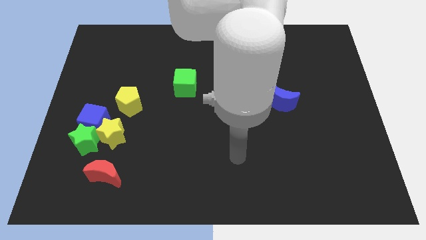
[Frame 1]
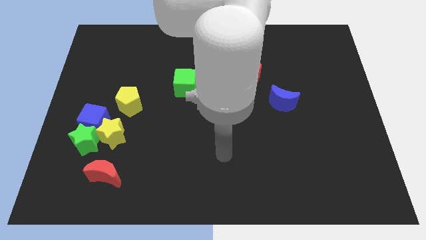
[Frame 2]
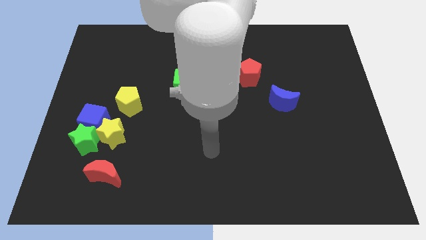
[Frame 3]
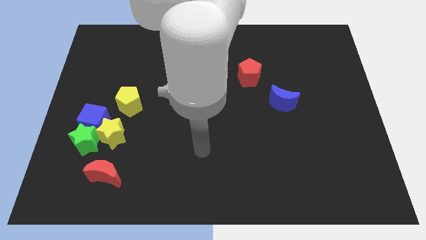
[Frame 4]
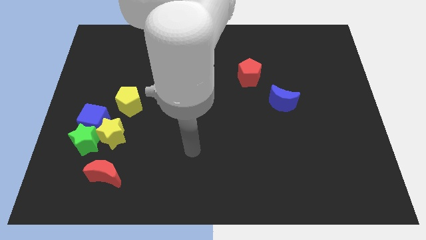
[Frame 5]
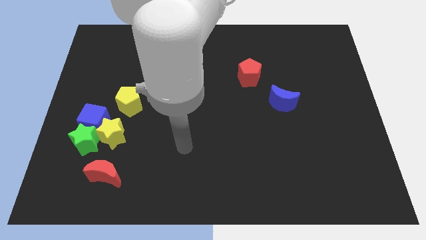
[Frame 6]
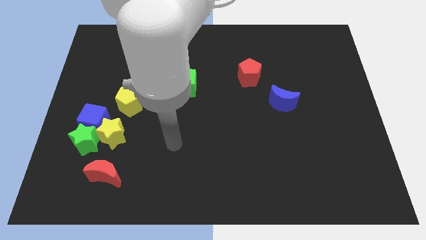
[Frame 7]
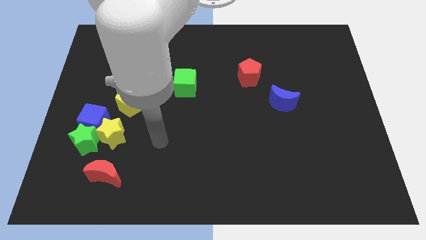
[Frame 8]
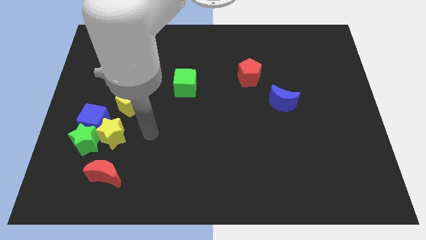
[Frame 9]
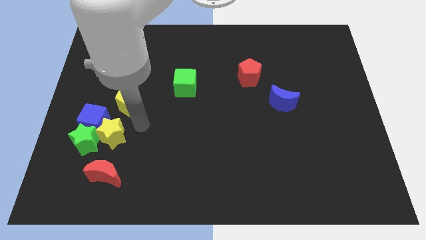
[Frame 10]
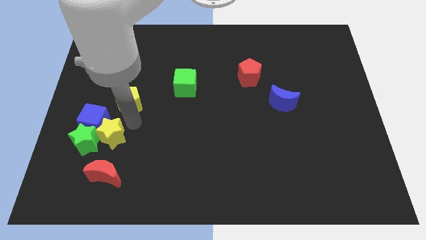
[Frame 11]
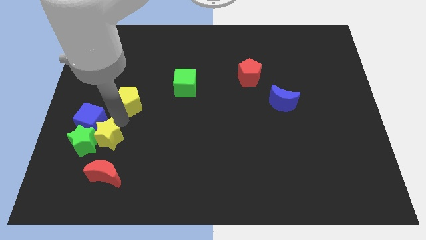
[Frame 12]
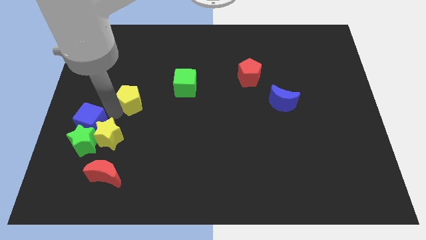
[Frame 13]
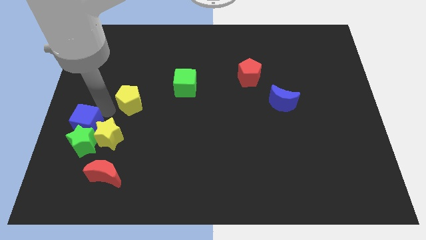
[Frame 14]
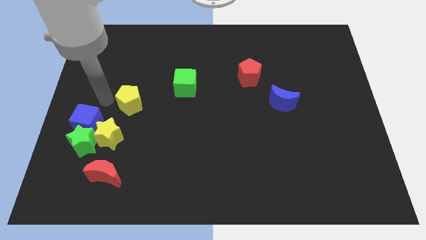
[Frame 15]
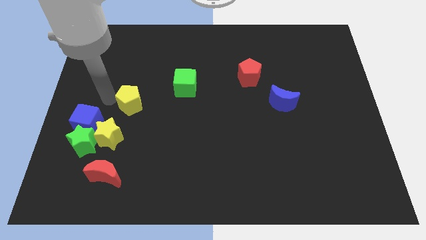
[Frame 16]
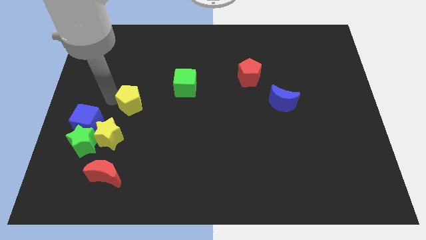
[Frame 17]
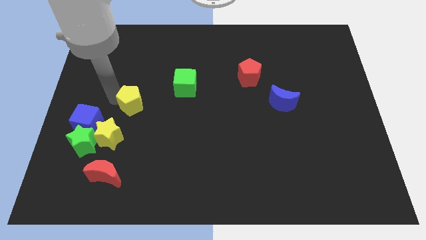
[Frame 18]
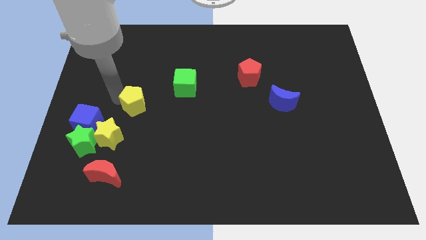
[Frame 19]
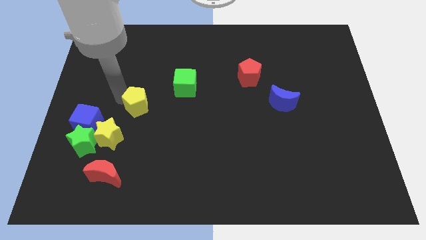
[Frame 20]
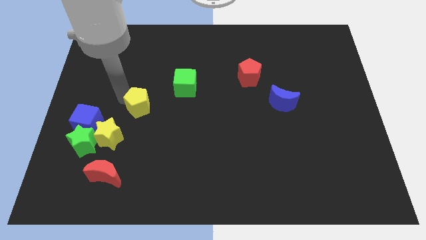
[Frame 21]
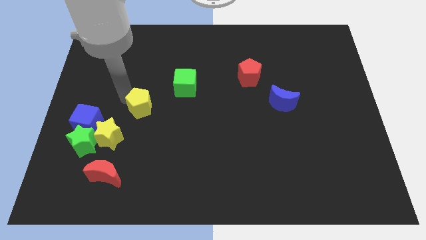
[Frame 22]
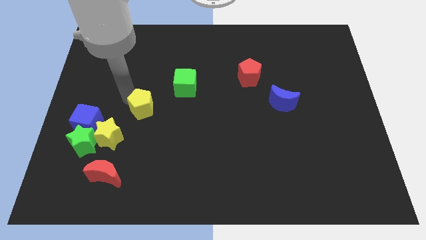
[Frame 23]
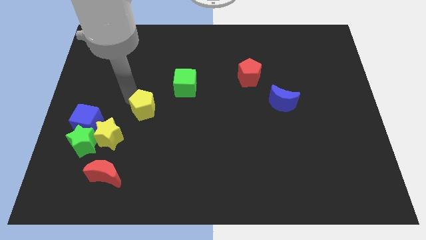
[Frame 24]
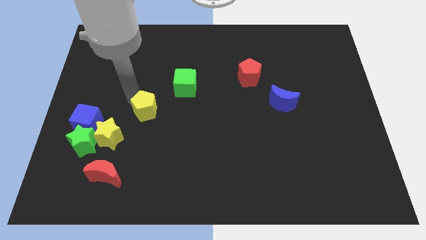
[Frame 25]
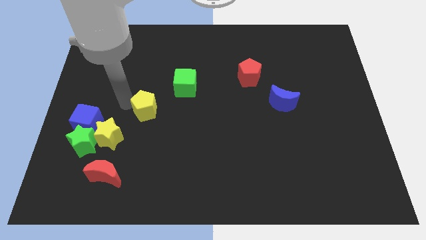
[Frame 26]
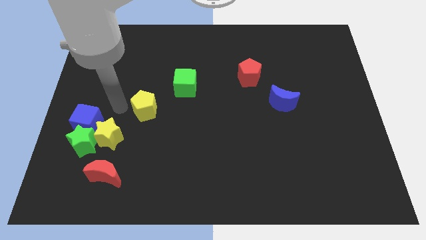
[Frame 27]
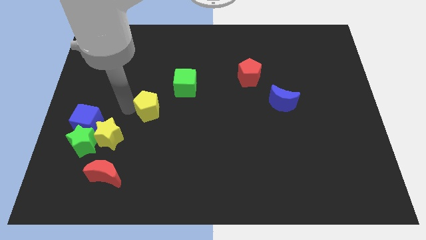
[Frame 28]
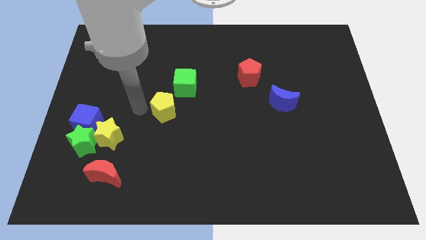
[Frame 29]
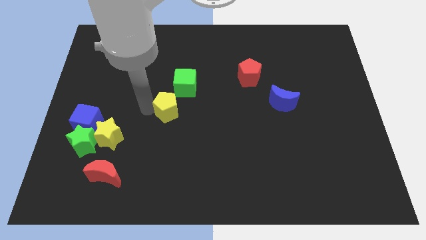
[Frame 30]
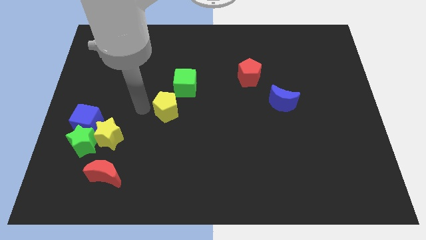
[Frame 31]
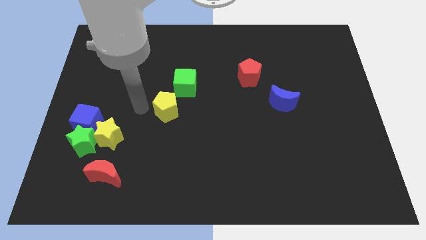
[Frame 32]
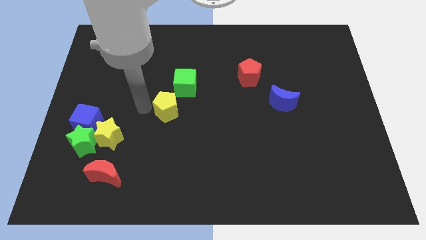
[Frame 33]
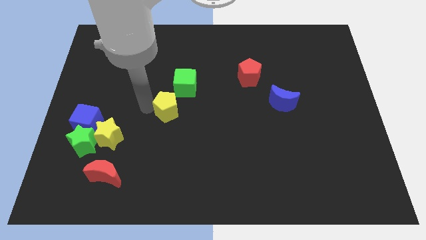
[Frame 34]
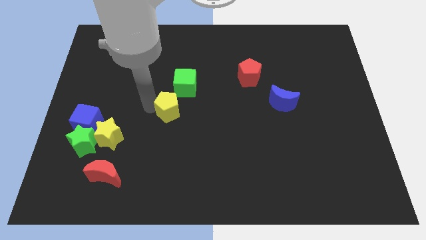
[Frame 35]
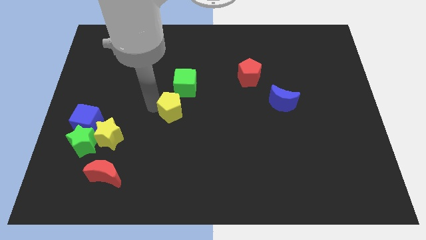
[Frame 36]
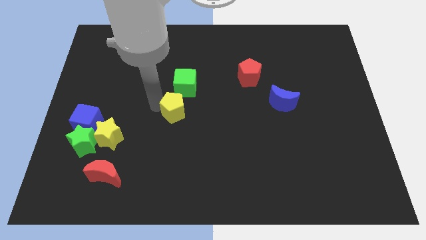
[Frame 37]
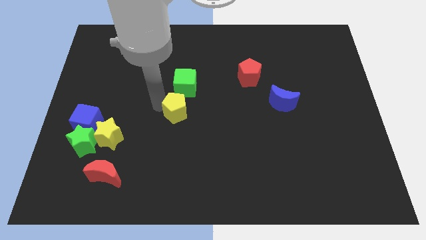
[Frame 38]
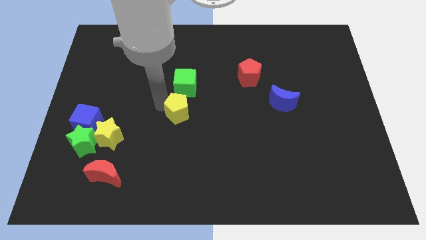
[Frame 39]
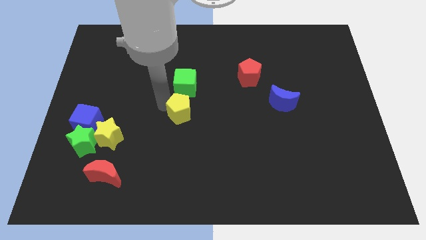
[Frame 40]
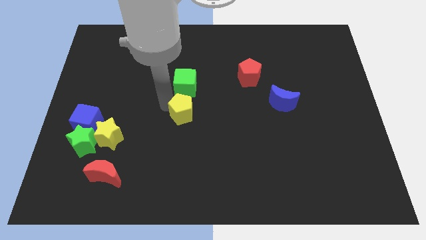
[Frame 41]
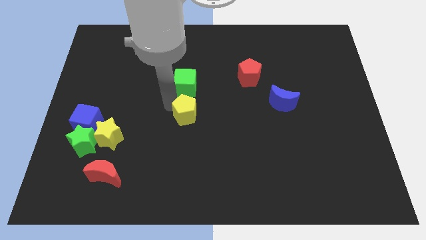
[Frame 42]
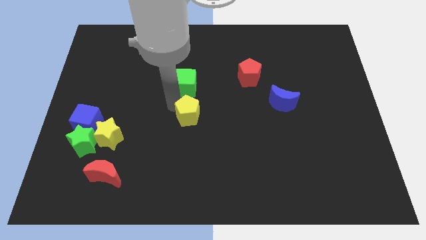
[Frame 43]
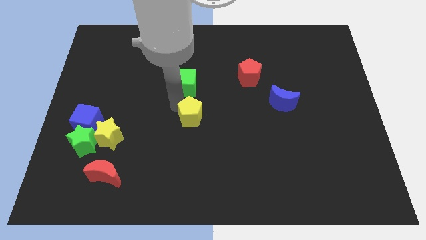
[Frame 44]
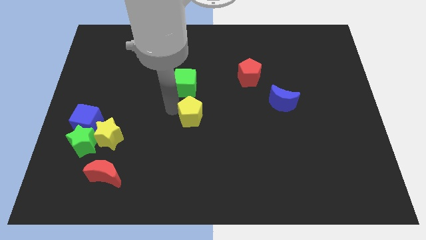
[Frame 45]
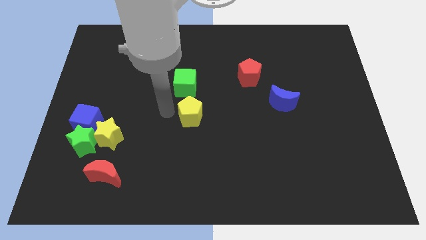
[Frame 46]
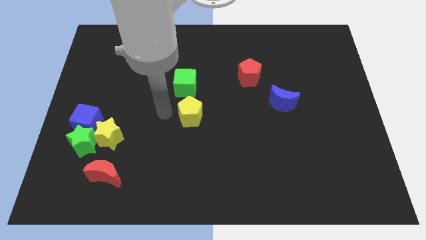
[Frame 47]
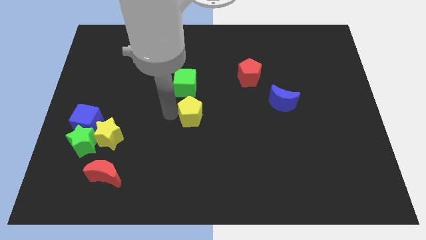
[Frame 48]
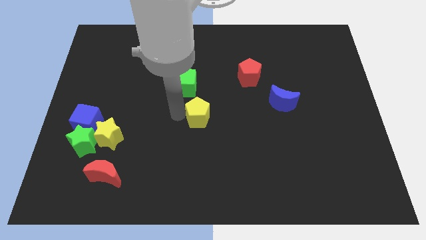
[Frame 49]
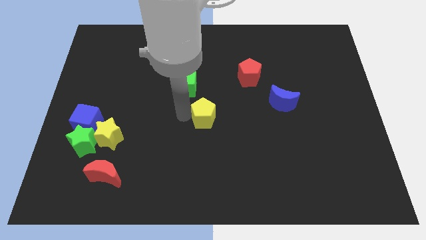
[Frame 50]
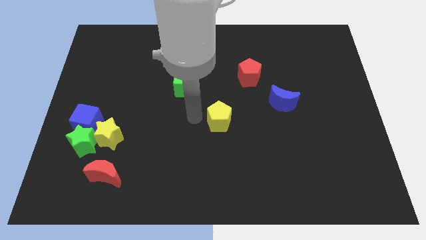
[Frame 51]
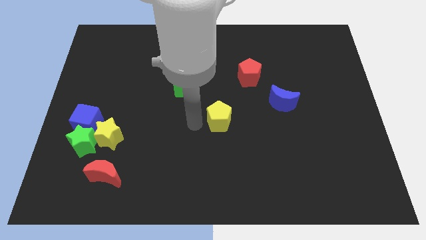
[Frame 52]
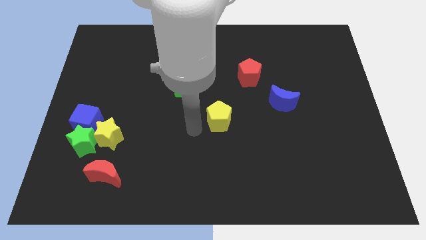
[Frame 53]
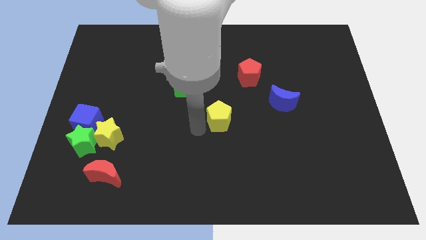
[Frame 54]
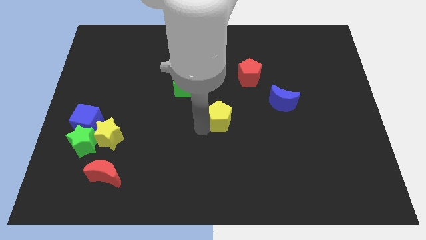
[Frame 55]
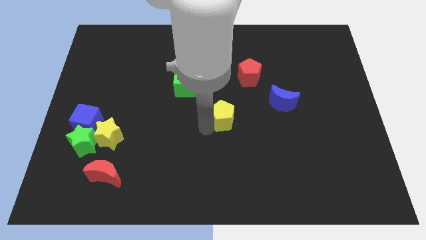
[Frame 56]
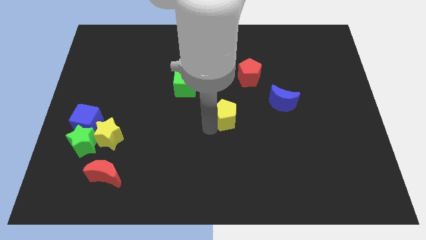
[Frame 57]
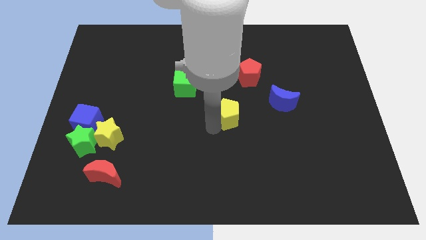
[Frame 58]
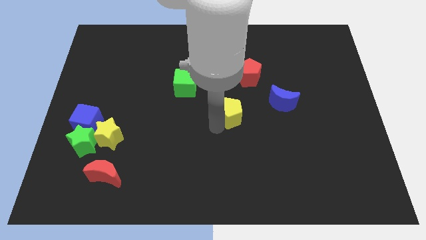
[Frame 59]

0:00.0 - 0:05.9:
move the yellow pentagon to the bottom of the red pentagon
